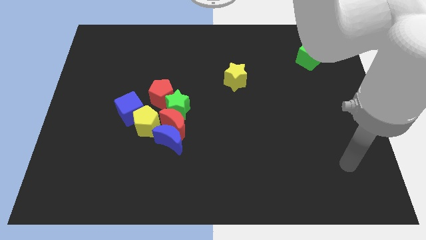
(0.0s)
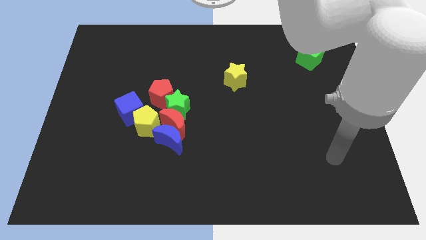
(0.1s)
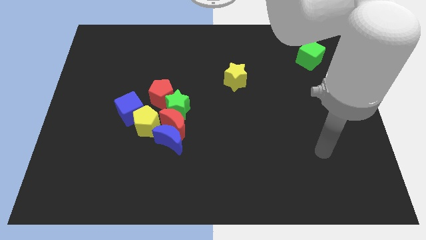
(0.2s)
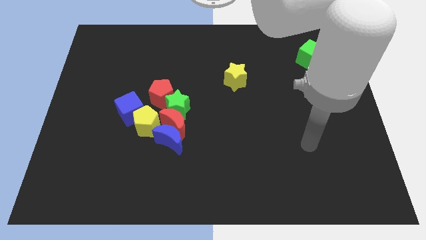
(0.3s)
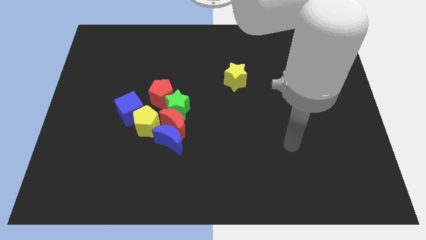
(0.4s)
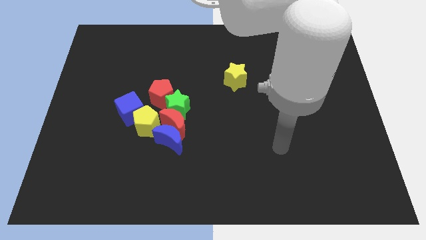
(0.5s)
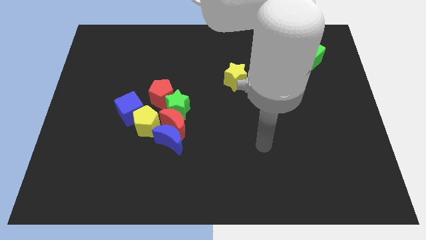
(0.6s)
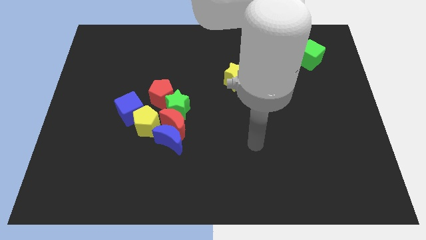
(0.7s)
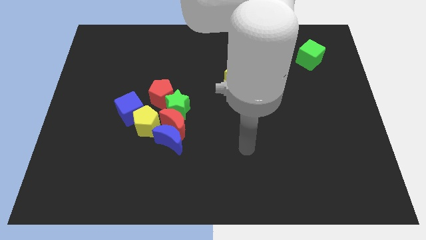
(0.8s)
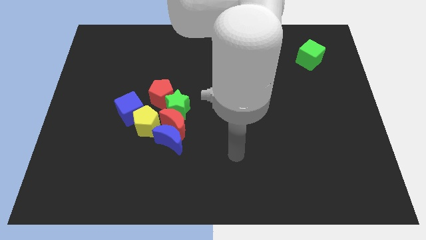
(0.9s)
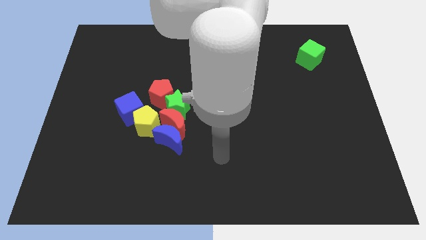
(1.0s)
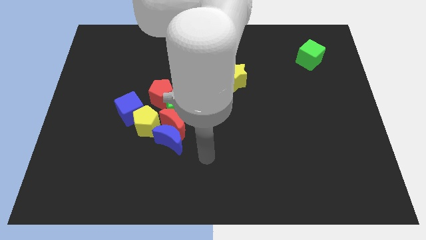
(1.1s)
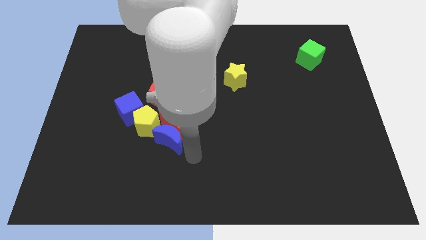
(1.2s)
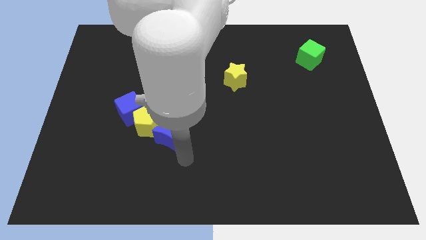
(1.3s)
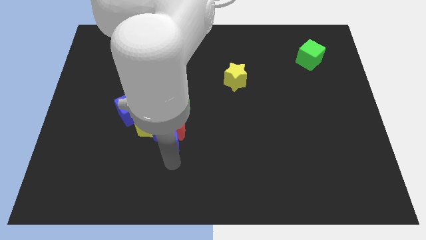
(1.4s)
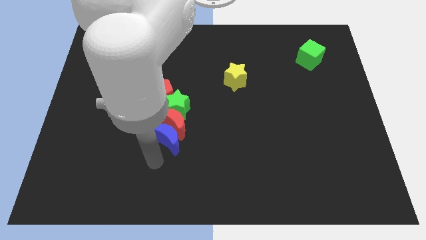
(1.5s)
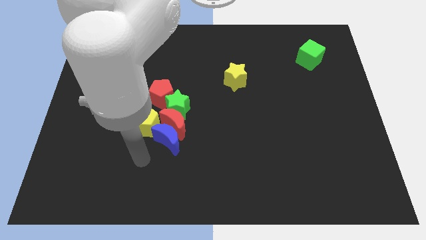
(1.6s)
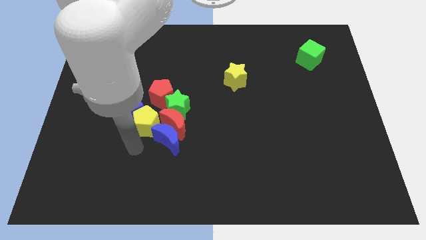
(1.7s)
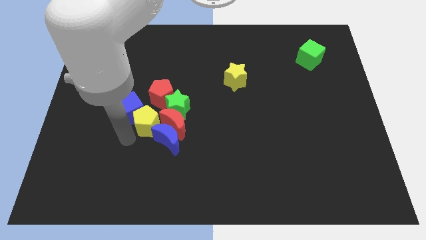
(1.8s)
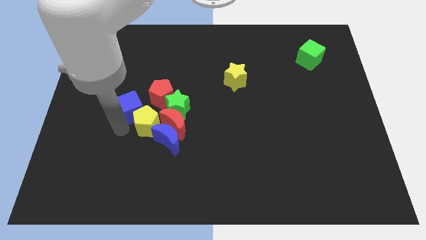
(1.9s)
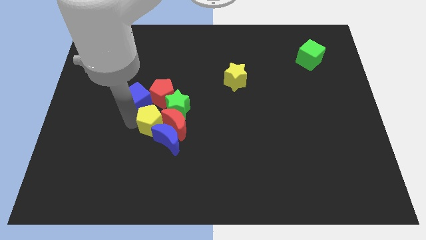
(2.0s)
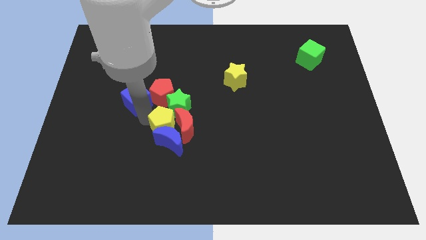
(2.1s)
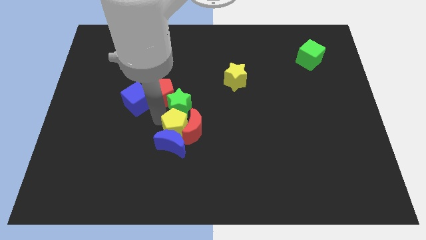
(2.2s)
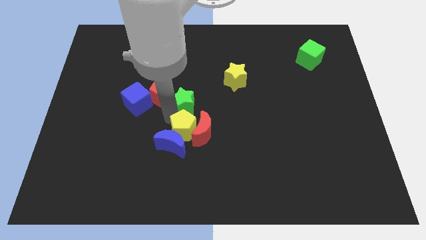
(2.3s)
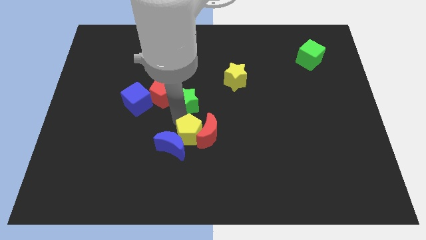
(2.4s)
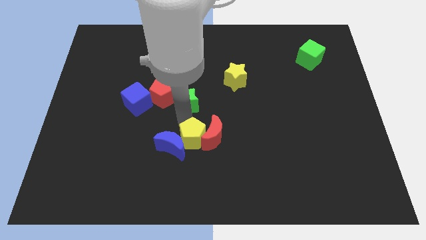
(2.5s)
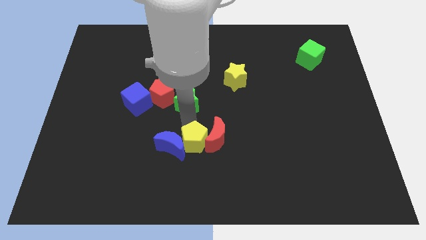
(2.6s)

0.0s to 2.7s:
separate the red moon from the clump

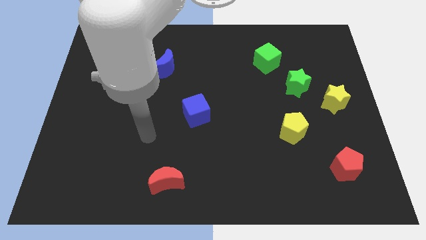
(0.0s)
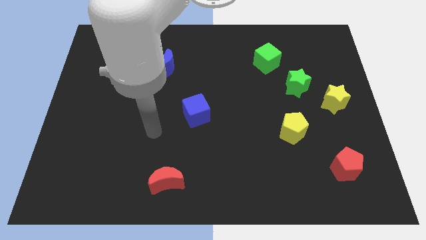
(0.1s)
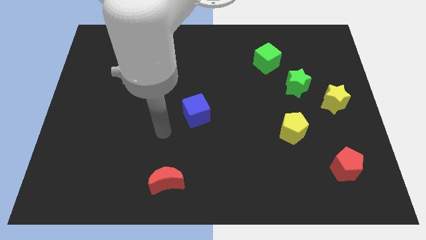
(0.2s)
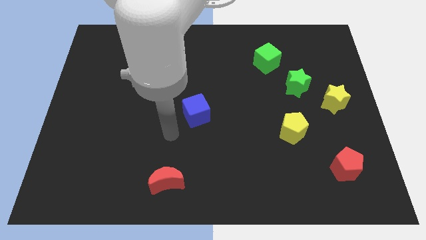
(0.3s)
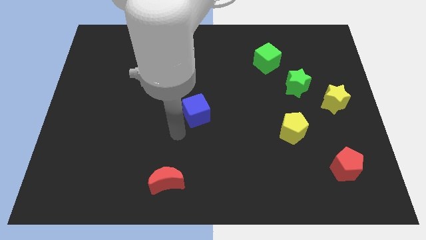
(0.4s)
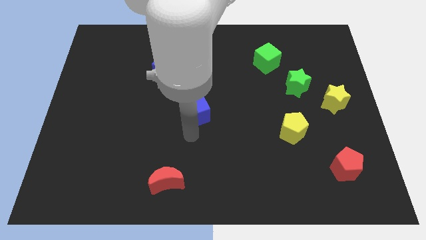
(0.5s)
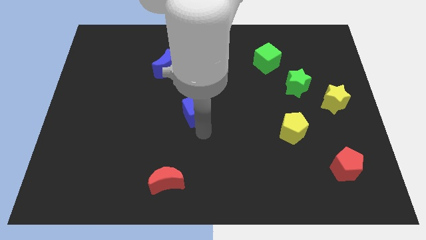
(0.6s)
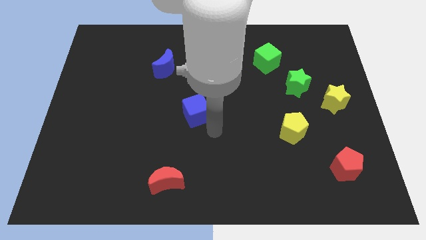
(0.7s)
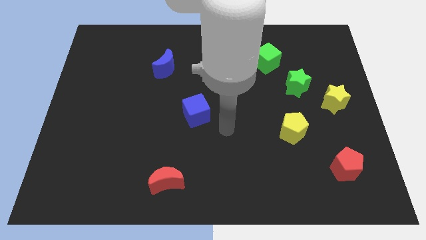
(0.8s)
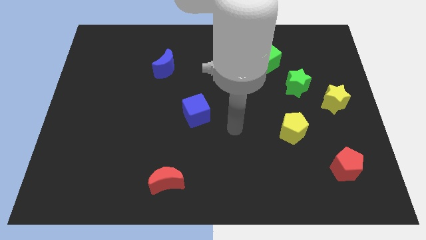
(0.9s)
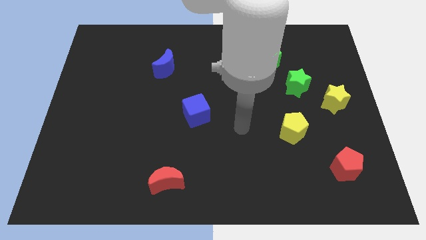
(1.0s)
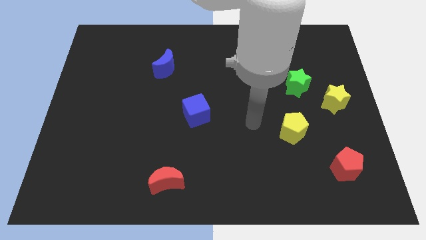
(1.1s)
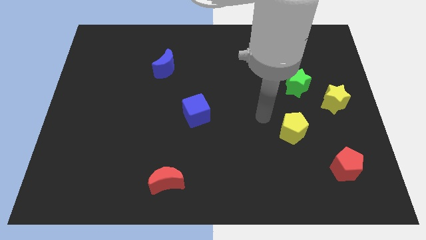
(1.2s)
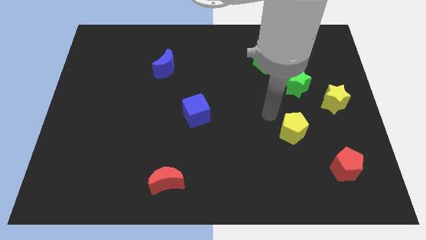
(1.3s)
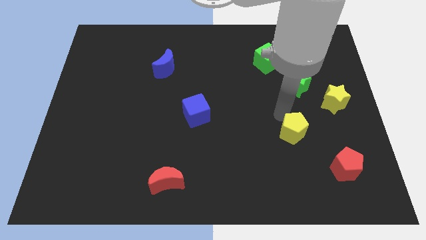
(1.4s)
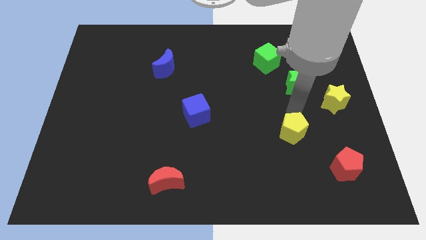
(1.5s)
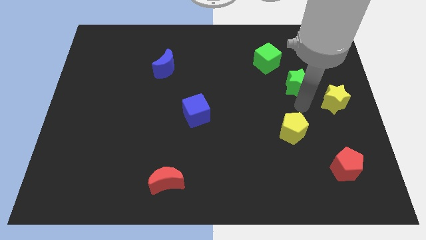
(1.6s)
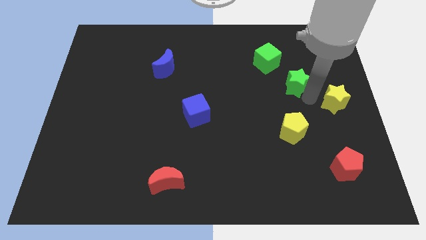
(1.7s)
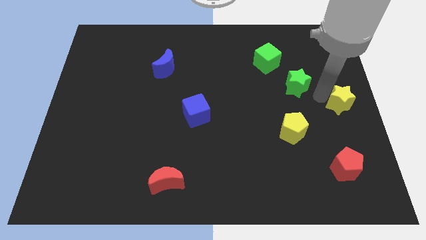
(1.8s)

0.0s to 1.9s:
separate the green star from the yellow star

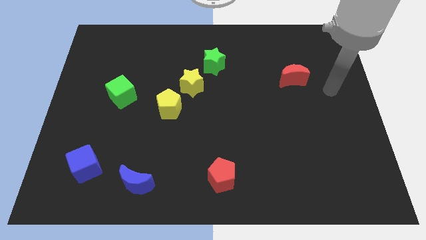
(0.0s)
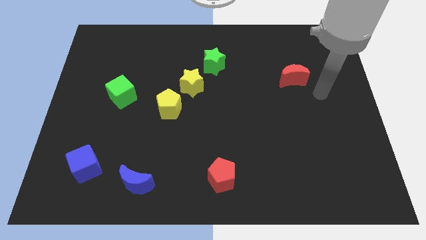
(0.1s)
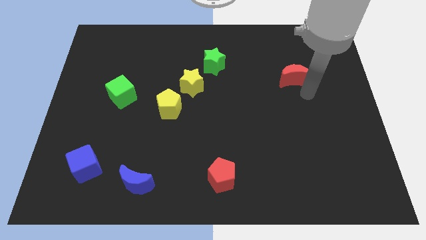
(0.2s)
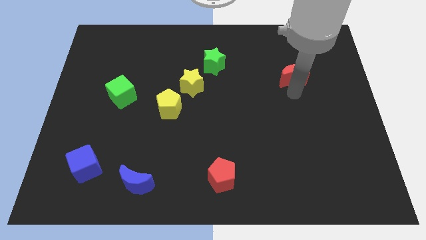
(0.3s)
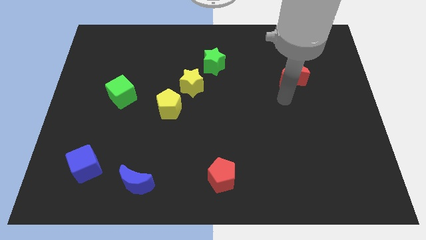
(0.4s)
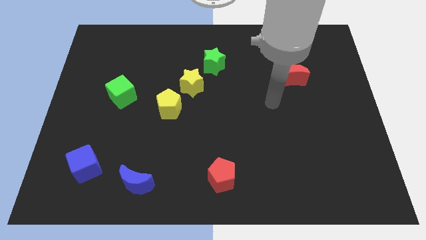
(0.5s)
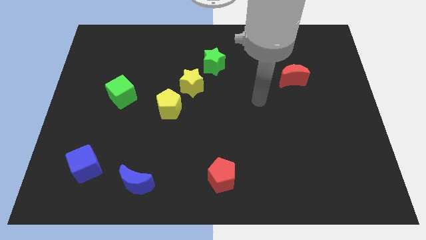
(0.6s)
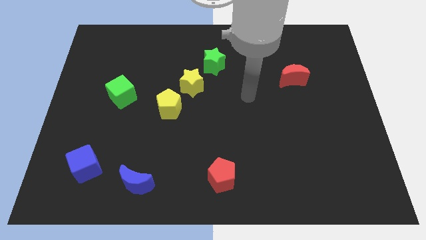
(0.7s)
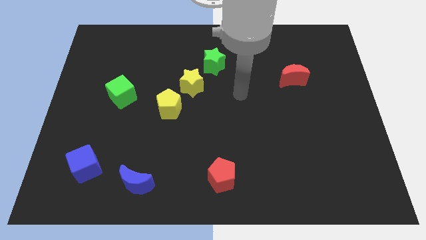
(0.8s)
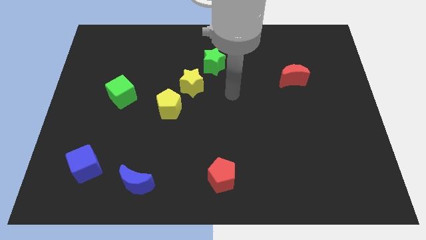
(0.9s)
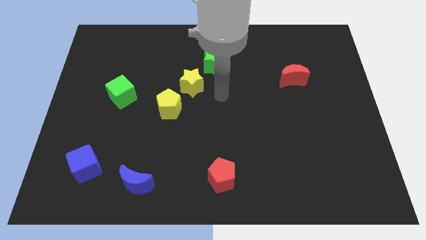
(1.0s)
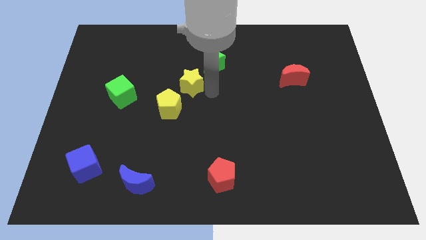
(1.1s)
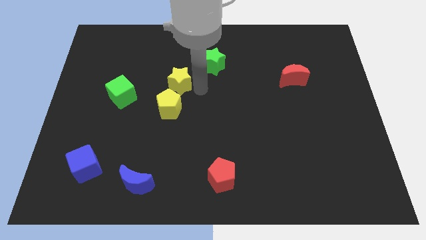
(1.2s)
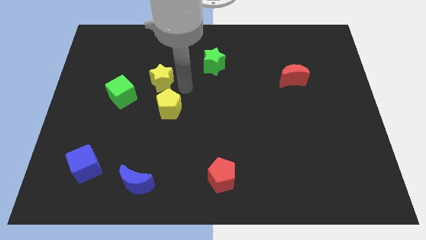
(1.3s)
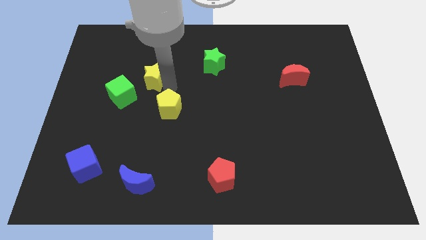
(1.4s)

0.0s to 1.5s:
move the yellow pentagon away from the yellow star

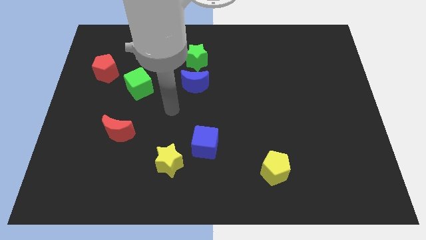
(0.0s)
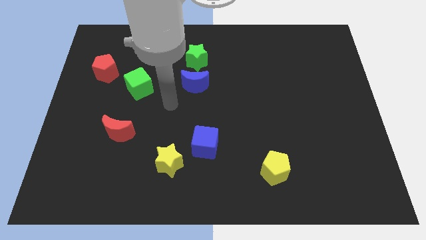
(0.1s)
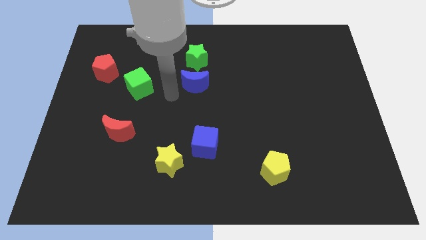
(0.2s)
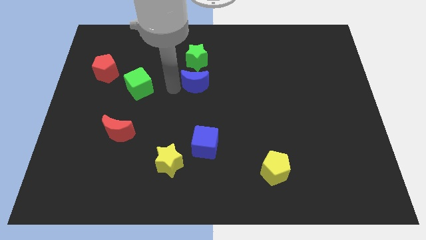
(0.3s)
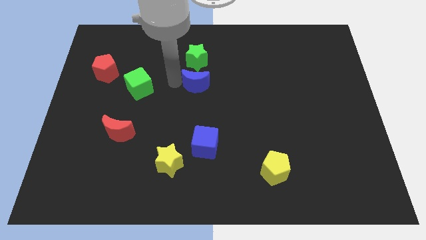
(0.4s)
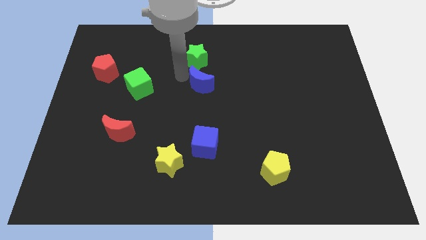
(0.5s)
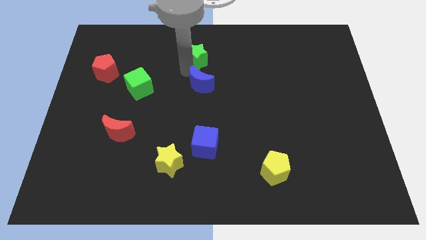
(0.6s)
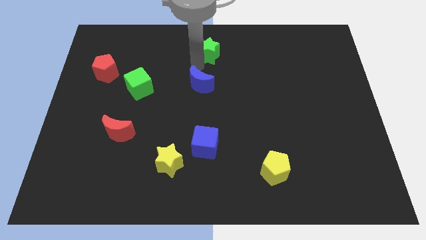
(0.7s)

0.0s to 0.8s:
move the blue moon away from the green star

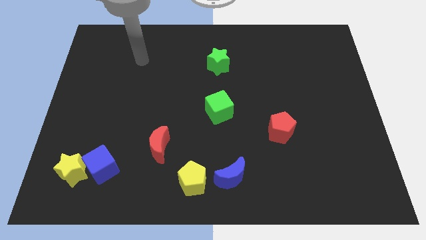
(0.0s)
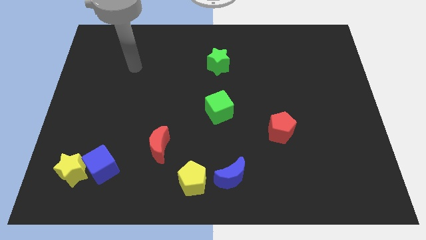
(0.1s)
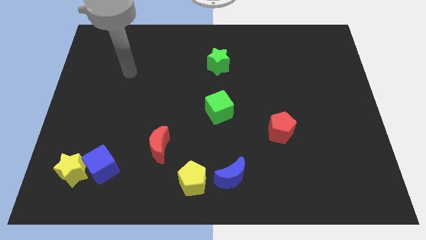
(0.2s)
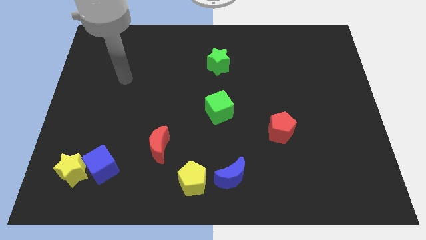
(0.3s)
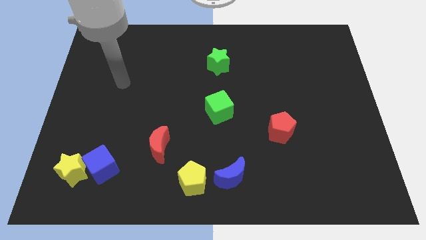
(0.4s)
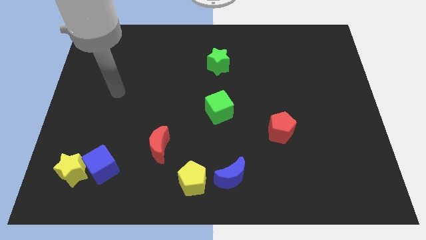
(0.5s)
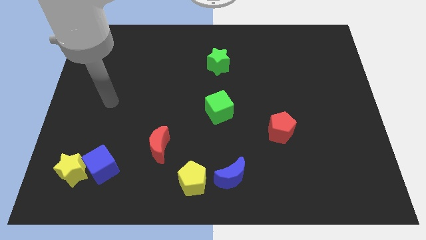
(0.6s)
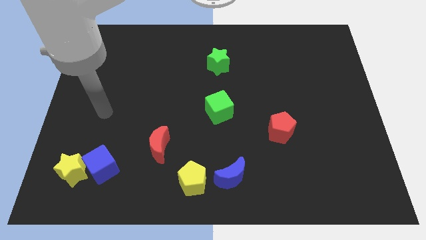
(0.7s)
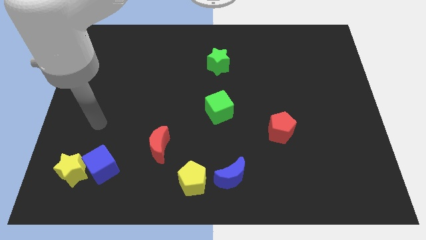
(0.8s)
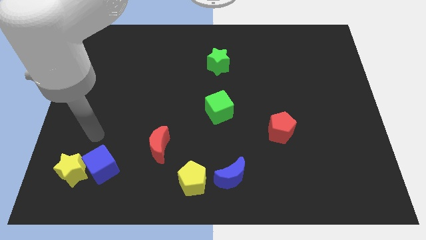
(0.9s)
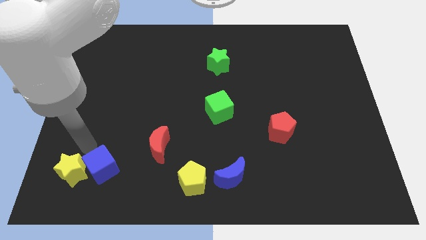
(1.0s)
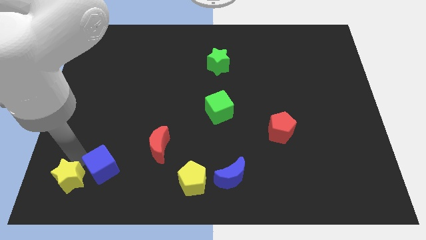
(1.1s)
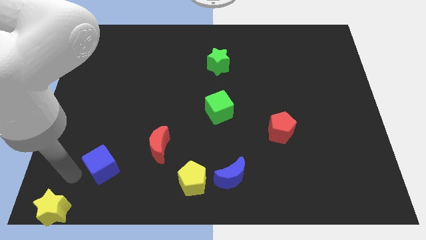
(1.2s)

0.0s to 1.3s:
move the blue cube away from the yellow star

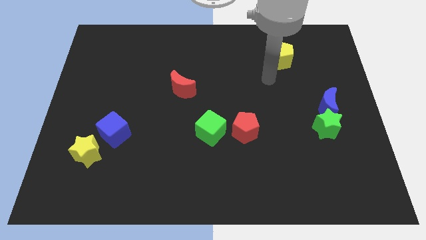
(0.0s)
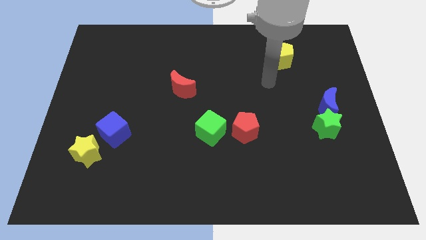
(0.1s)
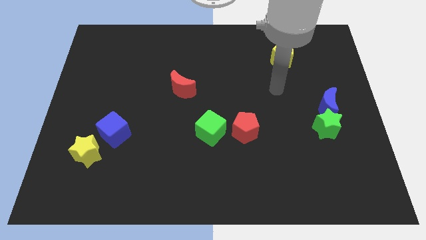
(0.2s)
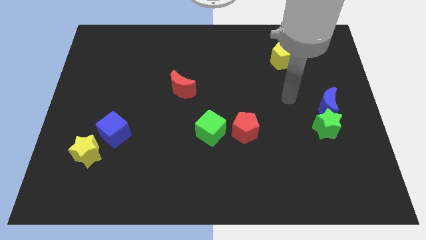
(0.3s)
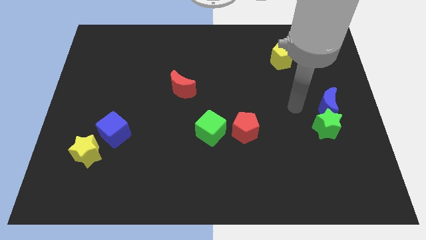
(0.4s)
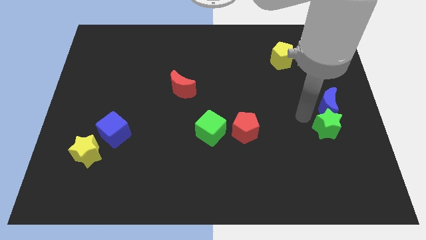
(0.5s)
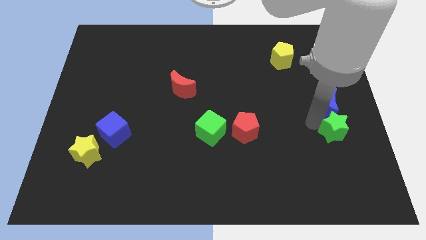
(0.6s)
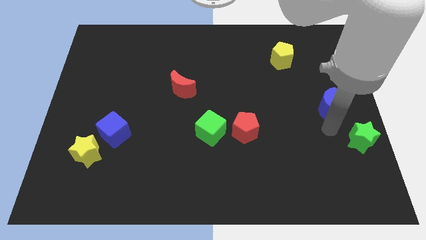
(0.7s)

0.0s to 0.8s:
separate the blue moon from the green star

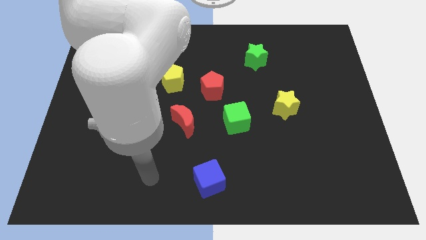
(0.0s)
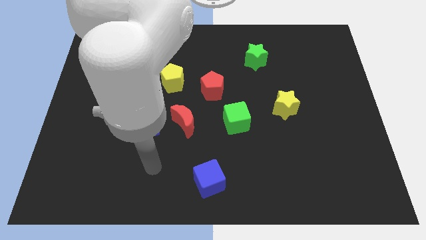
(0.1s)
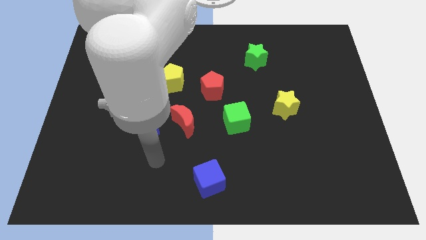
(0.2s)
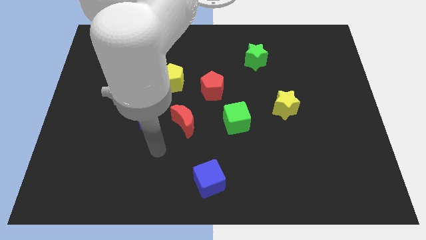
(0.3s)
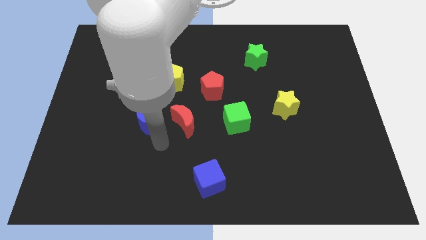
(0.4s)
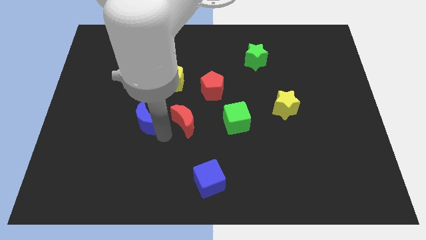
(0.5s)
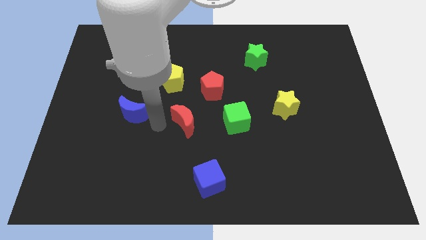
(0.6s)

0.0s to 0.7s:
pull the red moon apart from the blue moon
